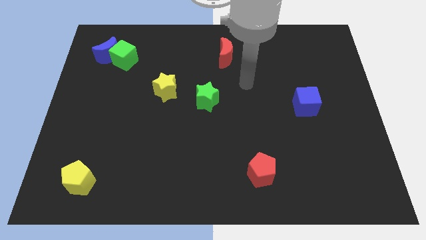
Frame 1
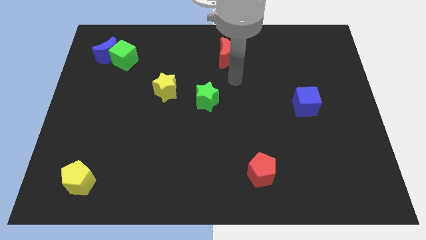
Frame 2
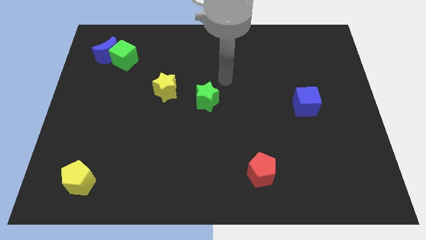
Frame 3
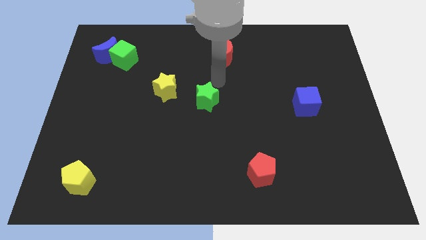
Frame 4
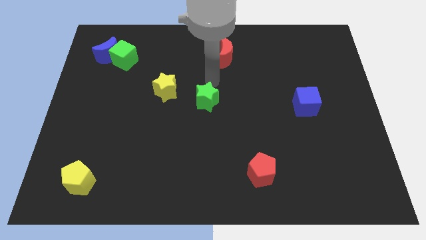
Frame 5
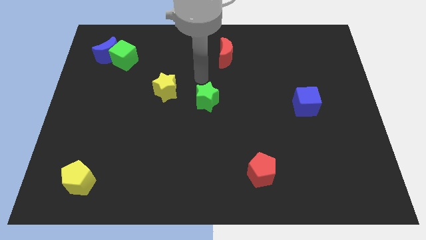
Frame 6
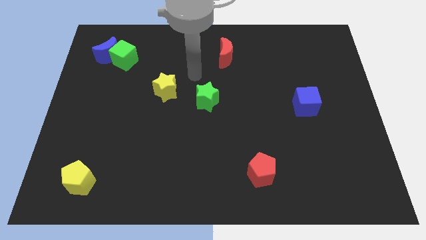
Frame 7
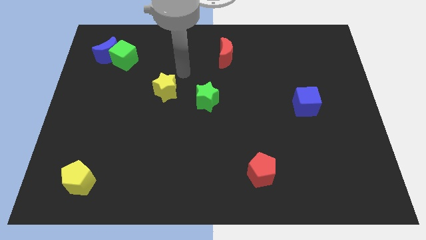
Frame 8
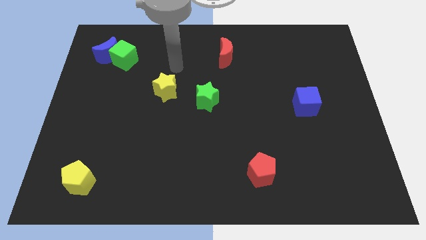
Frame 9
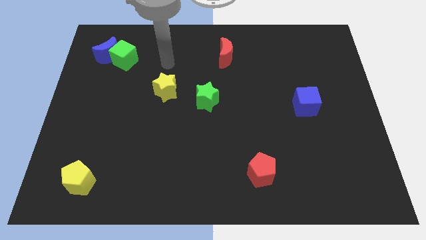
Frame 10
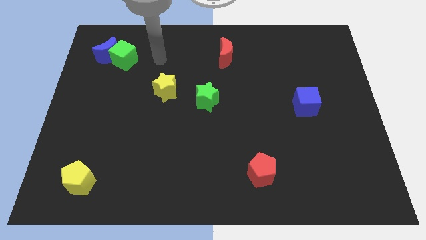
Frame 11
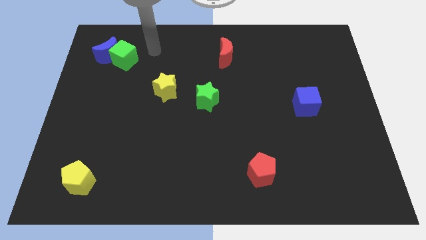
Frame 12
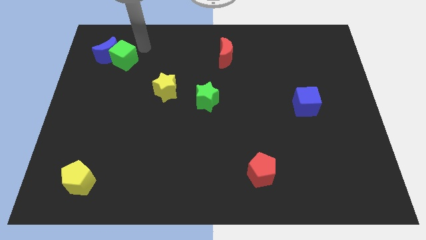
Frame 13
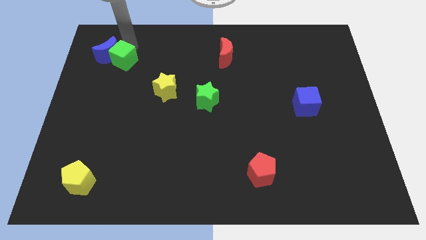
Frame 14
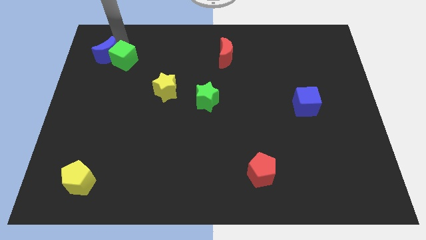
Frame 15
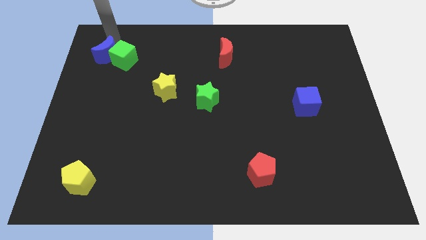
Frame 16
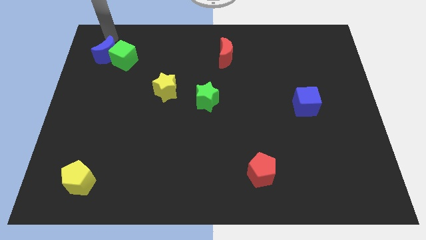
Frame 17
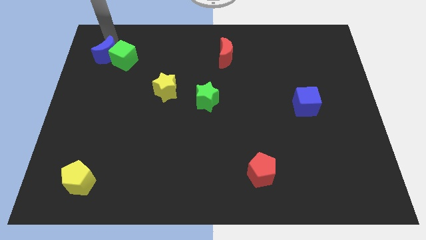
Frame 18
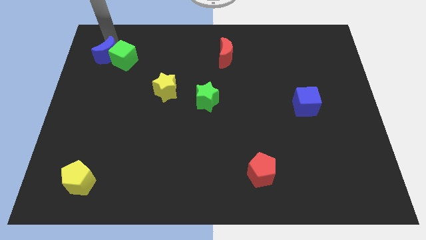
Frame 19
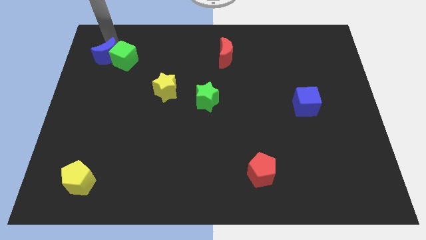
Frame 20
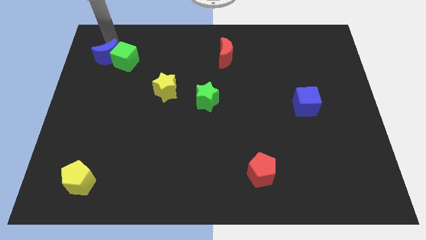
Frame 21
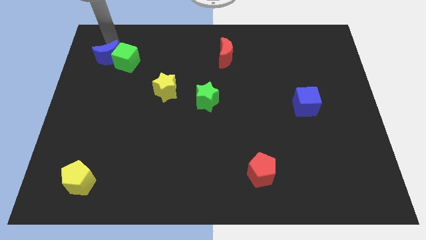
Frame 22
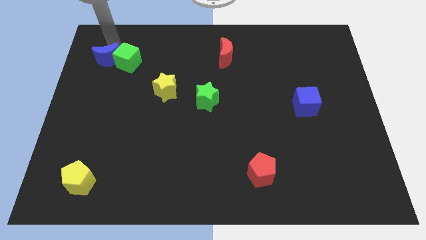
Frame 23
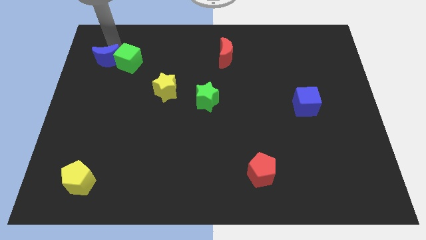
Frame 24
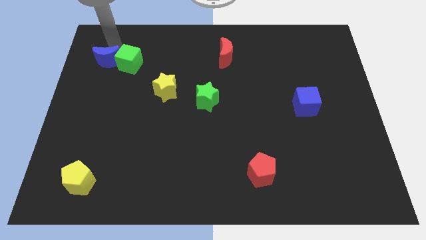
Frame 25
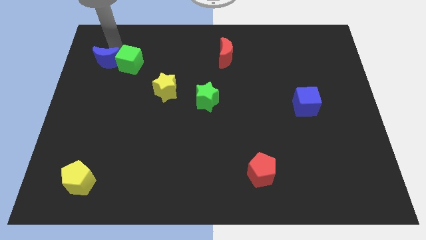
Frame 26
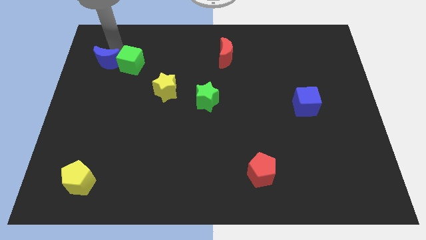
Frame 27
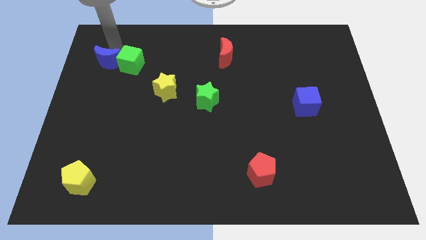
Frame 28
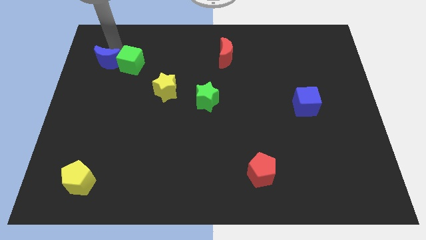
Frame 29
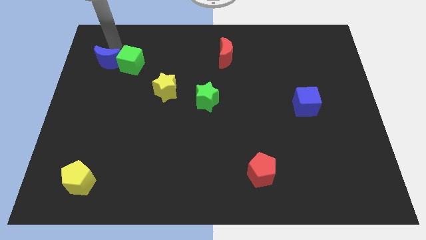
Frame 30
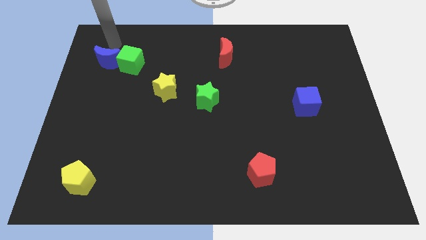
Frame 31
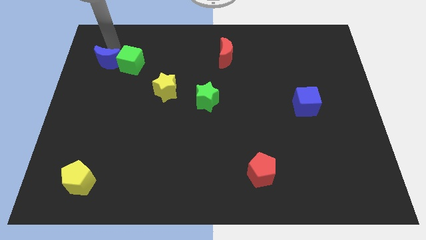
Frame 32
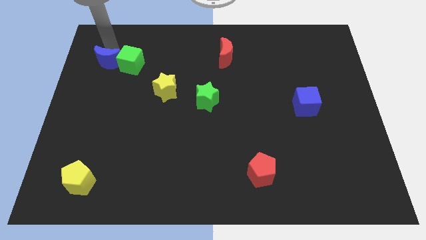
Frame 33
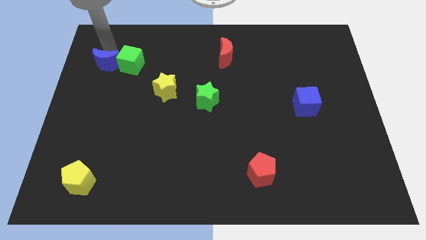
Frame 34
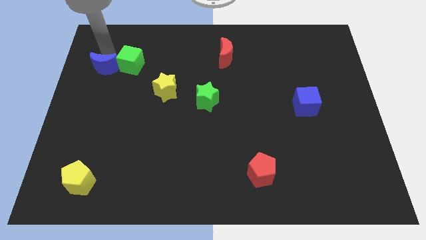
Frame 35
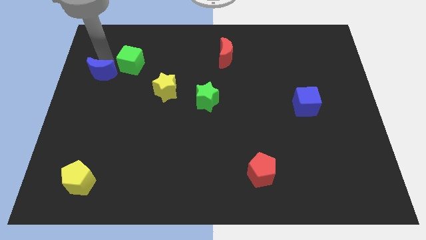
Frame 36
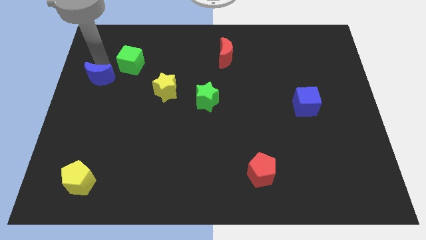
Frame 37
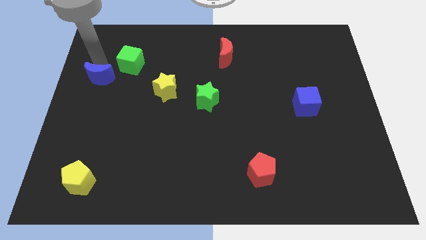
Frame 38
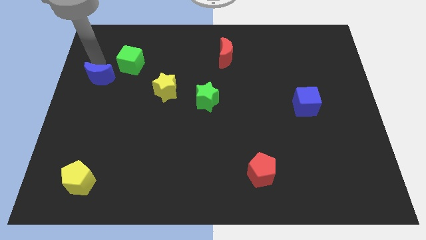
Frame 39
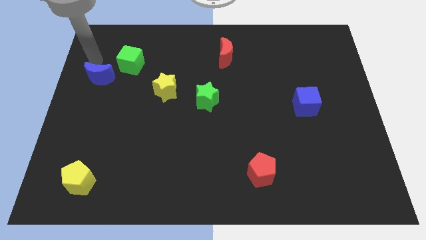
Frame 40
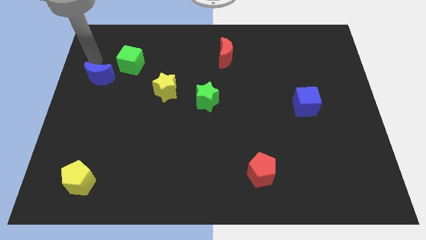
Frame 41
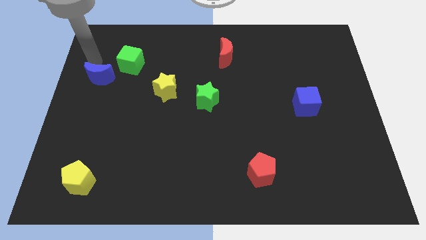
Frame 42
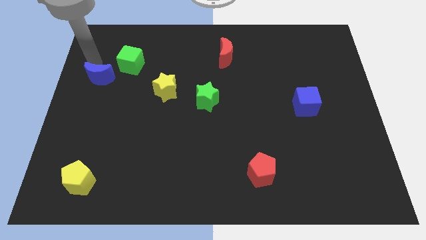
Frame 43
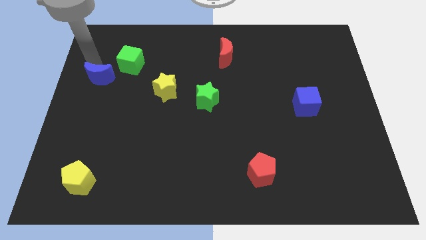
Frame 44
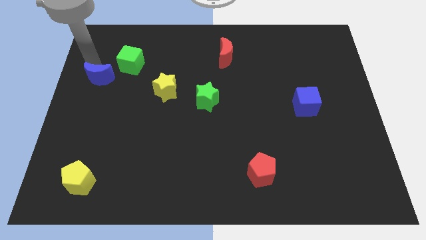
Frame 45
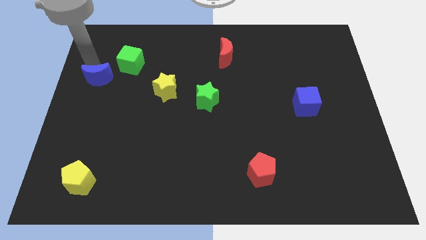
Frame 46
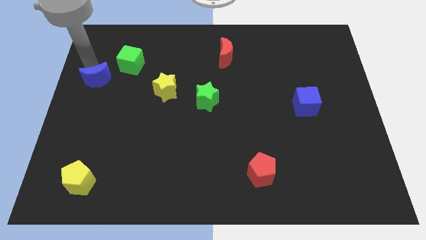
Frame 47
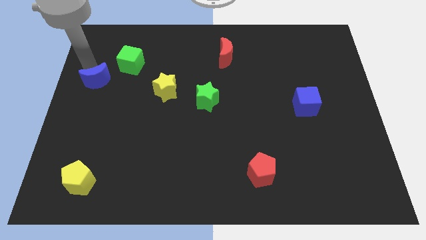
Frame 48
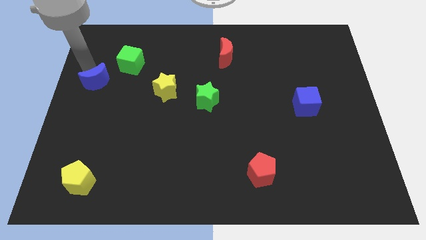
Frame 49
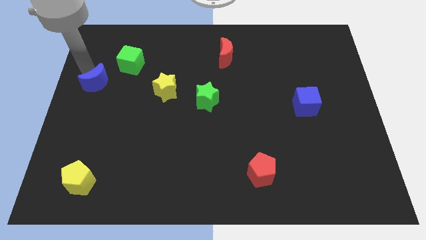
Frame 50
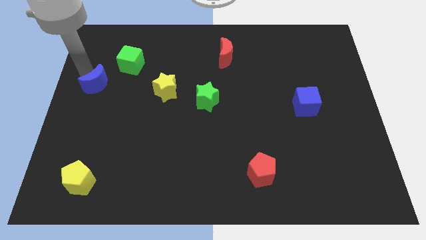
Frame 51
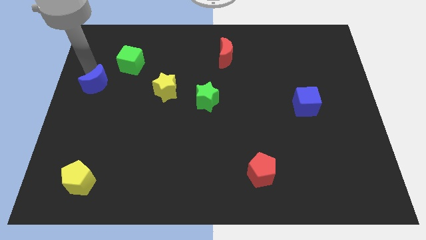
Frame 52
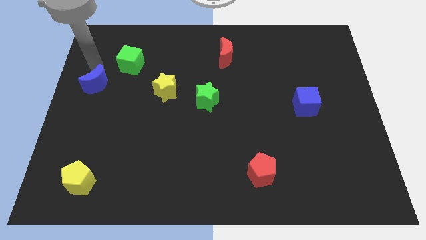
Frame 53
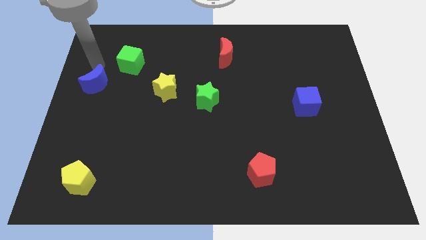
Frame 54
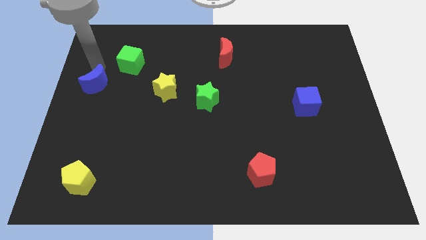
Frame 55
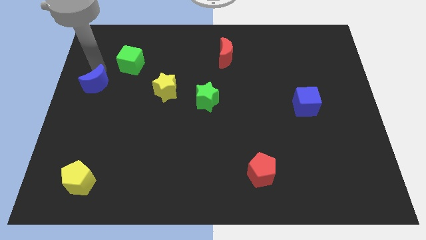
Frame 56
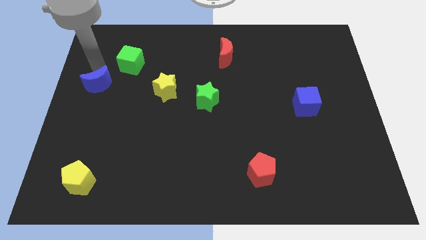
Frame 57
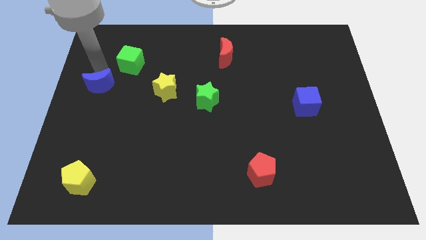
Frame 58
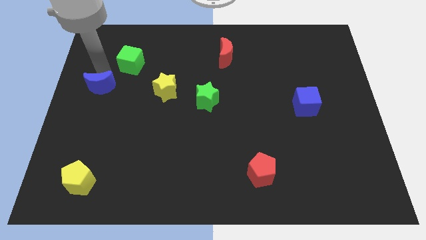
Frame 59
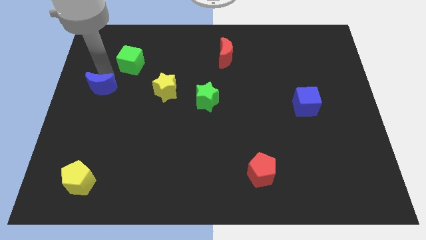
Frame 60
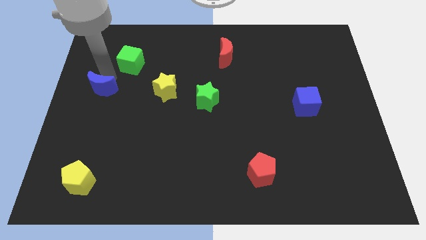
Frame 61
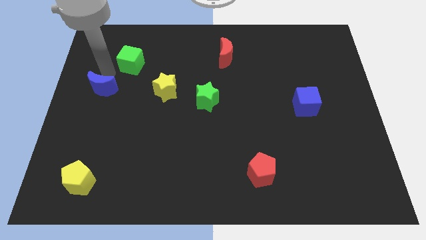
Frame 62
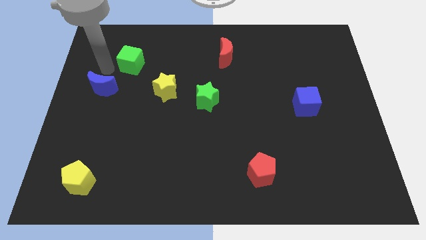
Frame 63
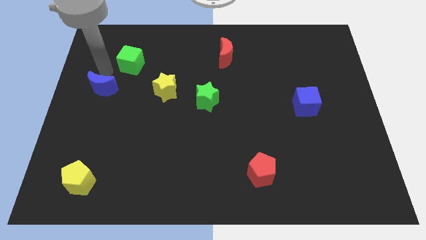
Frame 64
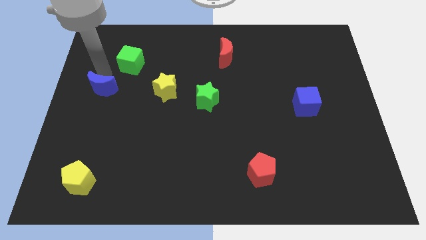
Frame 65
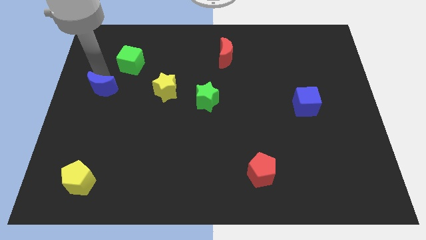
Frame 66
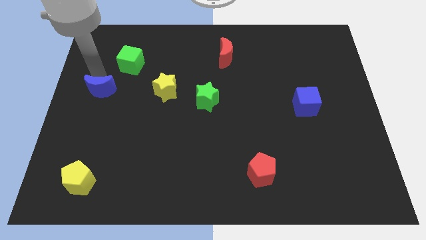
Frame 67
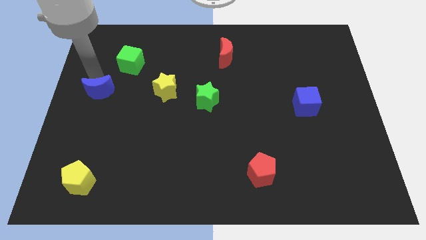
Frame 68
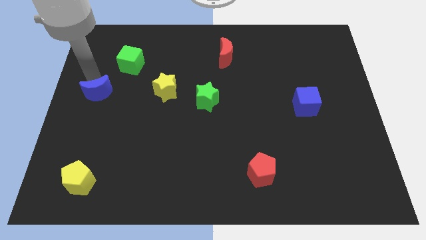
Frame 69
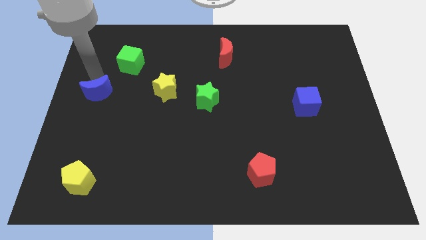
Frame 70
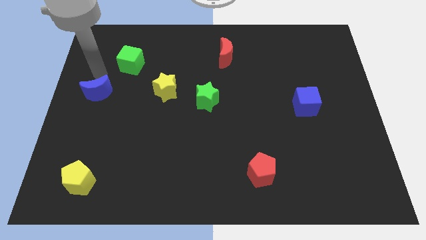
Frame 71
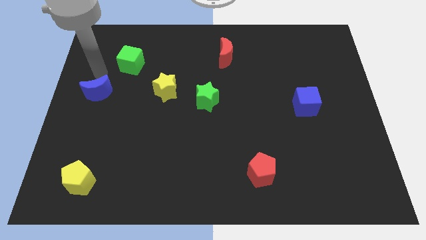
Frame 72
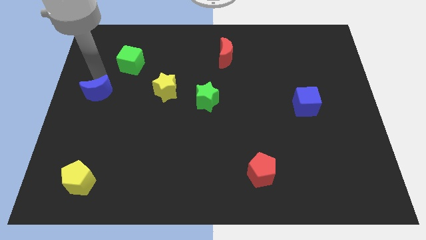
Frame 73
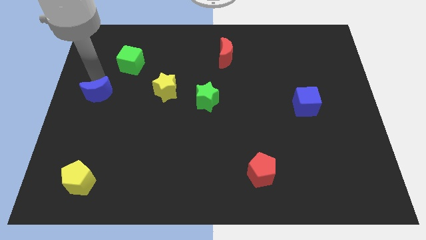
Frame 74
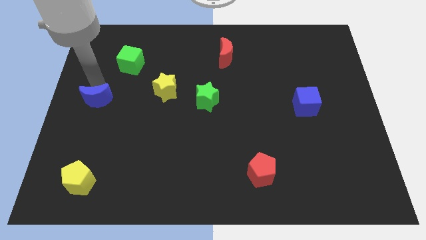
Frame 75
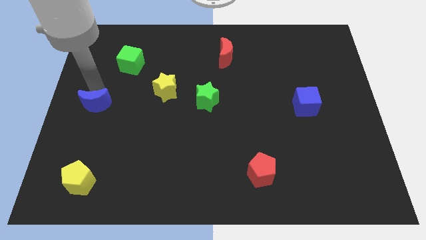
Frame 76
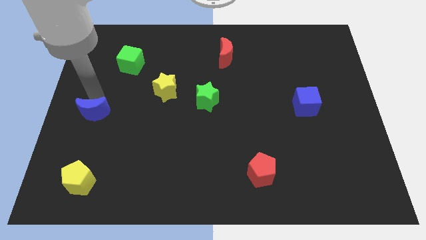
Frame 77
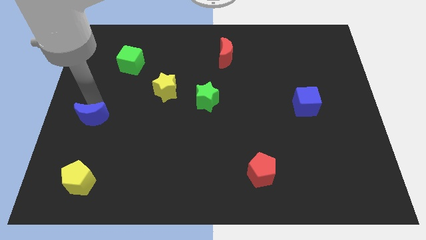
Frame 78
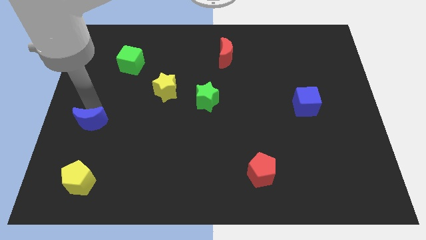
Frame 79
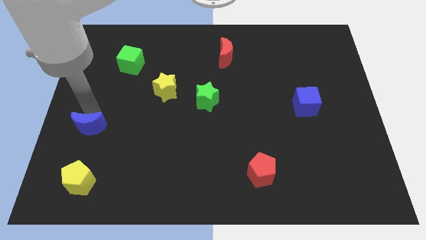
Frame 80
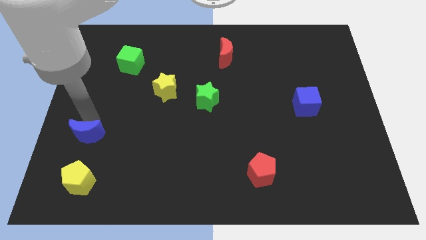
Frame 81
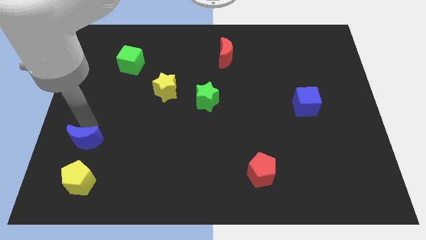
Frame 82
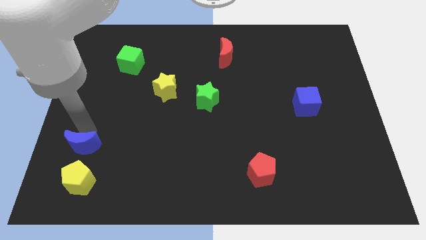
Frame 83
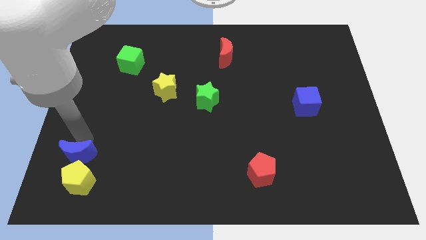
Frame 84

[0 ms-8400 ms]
move the blue moon next to the yellow pentagon
